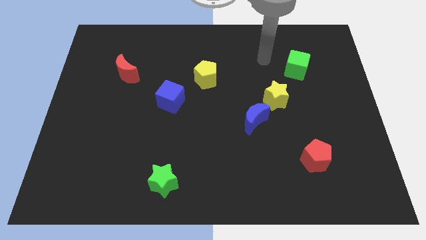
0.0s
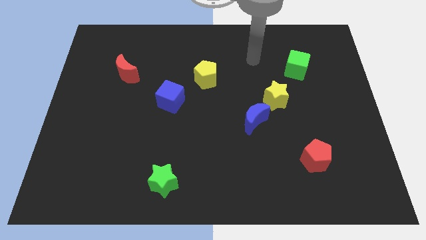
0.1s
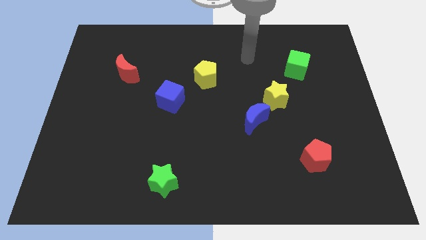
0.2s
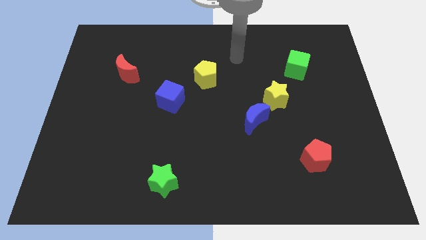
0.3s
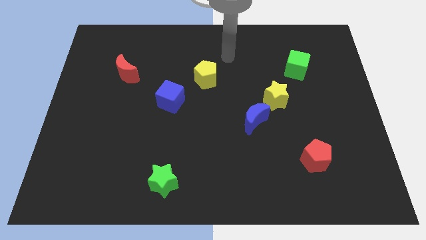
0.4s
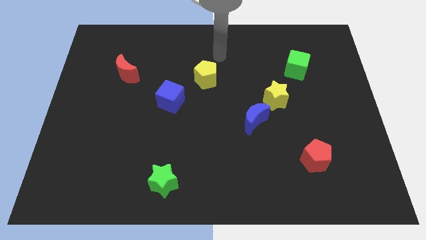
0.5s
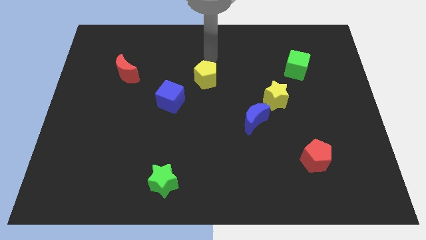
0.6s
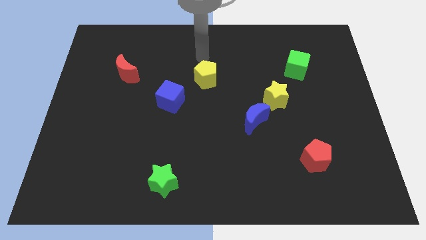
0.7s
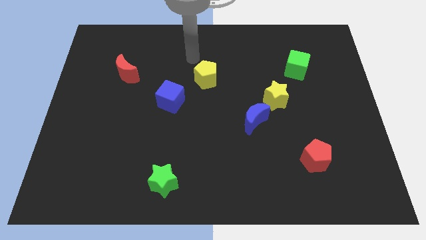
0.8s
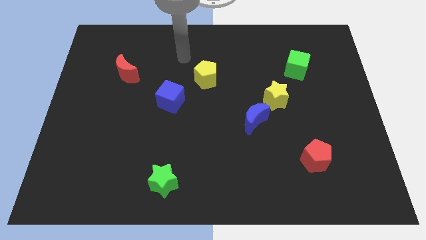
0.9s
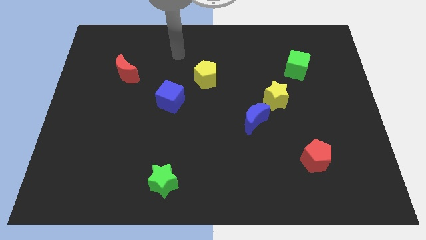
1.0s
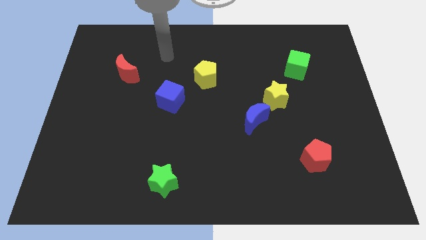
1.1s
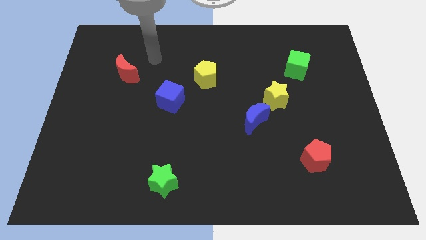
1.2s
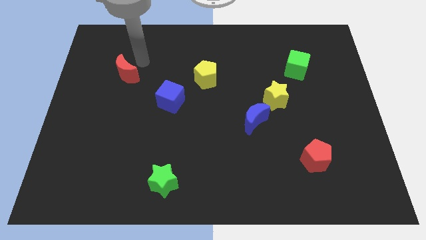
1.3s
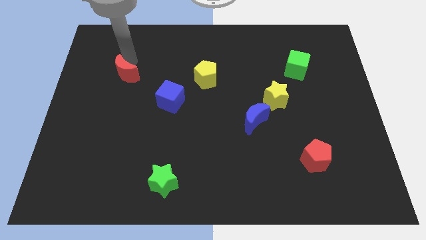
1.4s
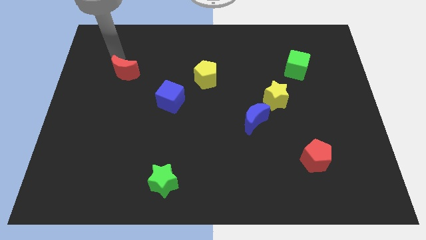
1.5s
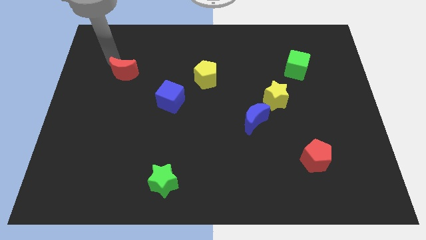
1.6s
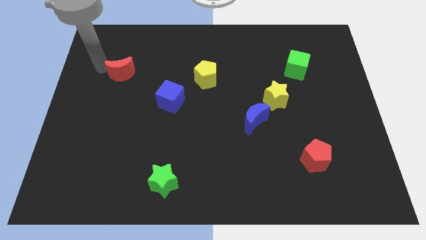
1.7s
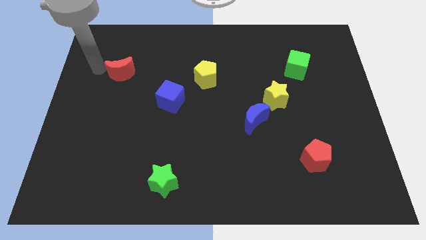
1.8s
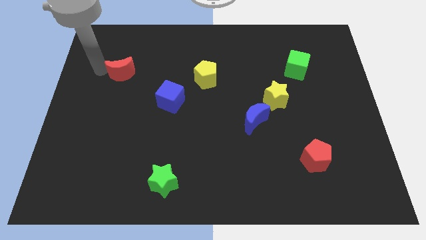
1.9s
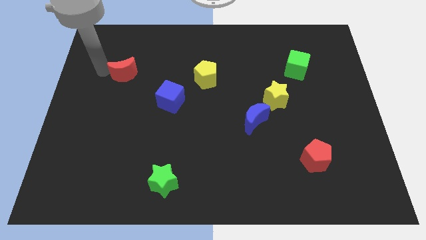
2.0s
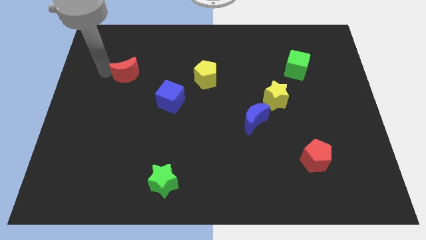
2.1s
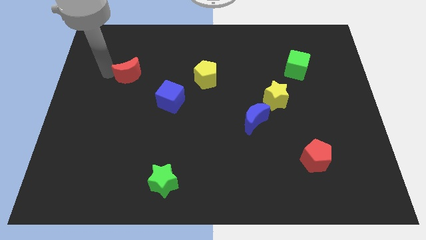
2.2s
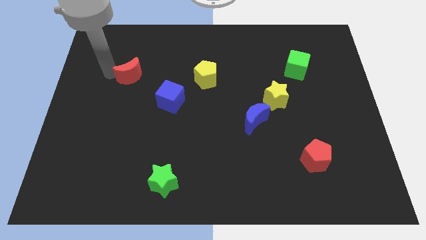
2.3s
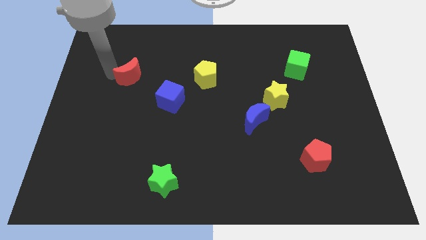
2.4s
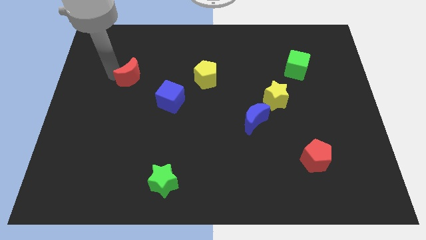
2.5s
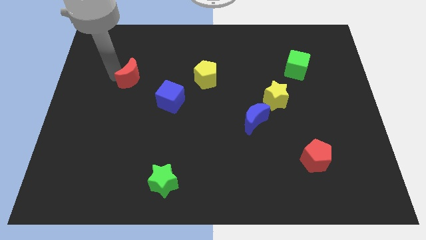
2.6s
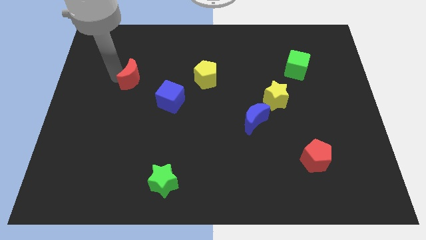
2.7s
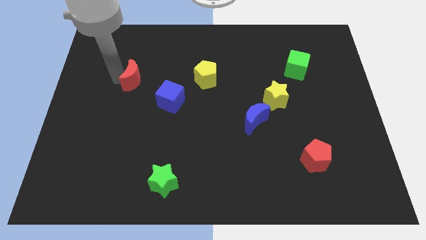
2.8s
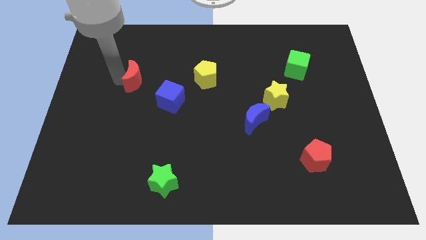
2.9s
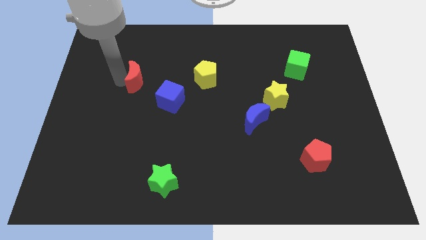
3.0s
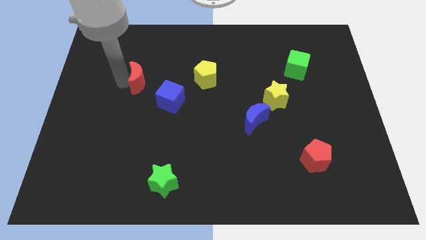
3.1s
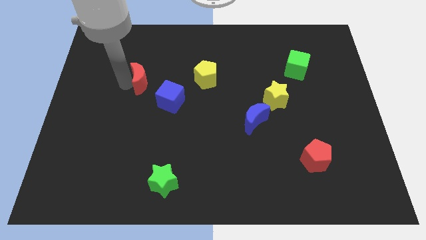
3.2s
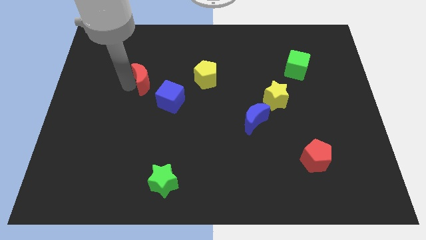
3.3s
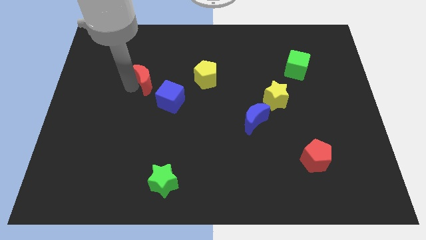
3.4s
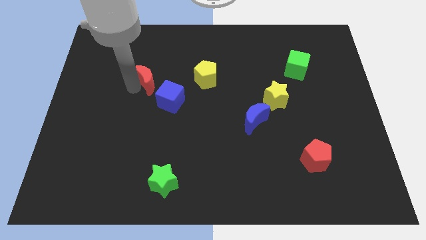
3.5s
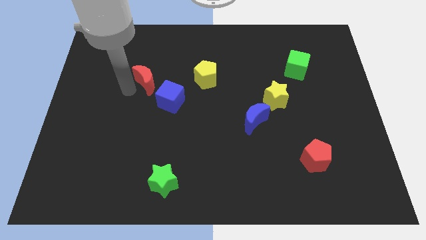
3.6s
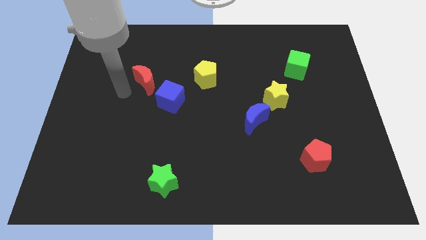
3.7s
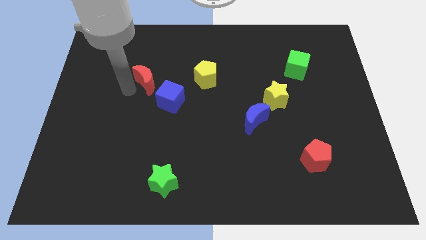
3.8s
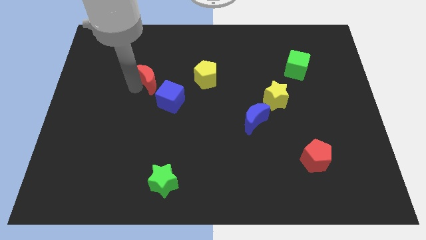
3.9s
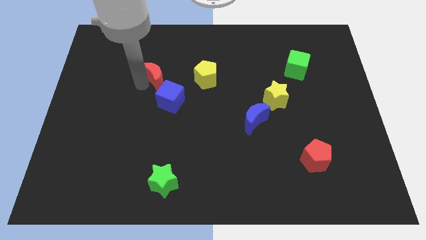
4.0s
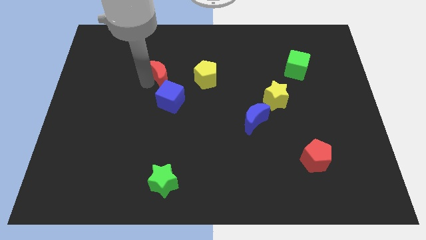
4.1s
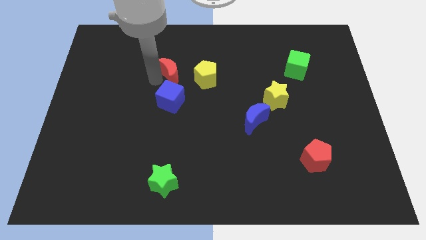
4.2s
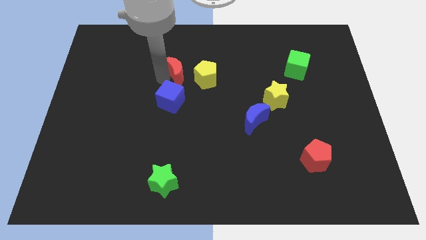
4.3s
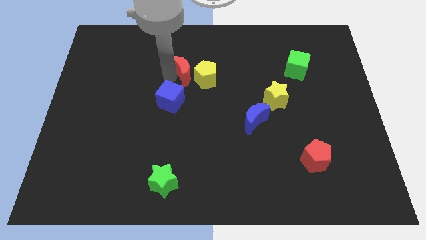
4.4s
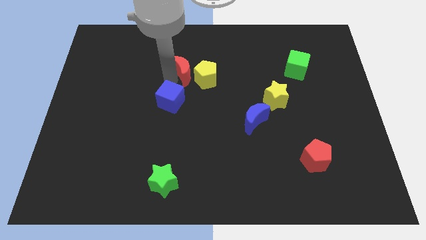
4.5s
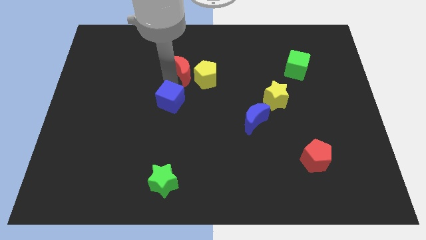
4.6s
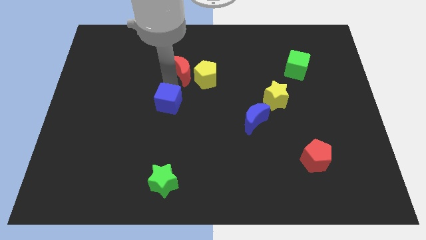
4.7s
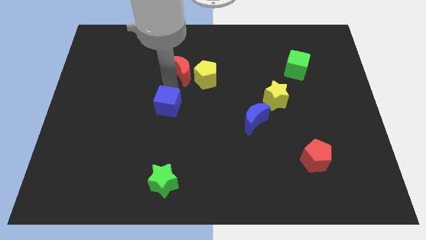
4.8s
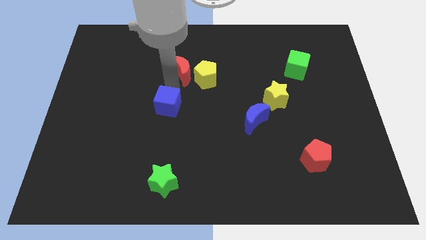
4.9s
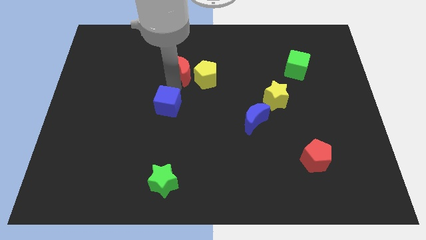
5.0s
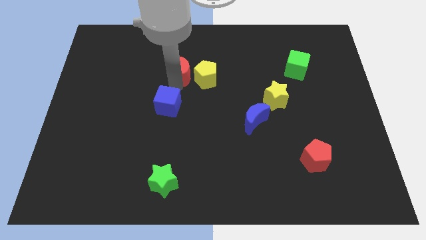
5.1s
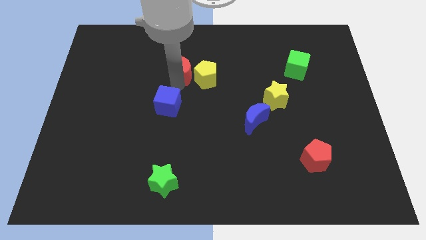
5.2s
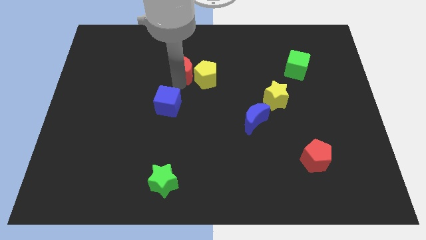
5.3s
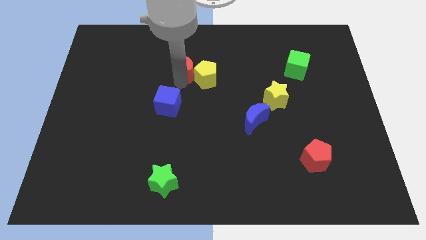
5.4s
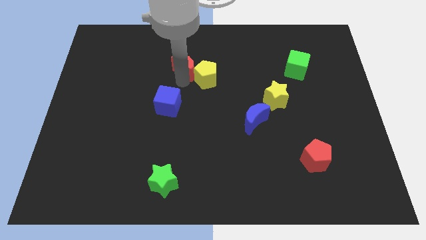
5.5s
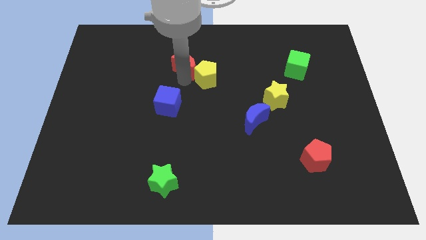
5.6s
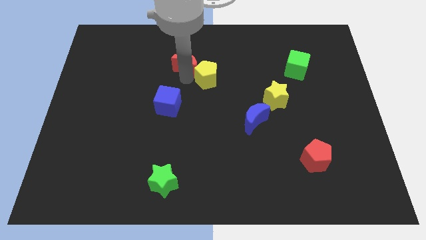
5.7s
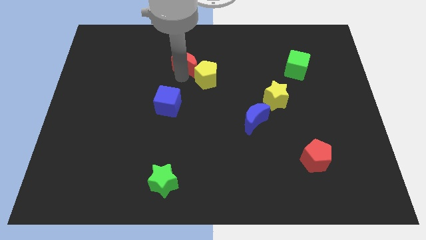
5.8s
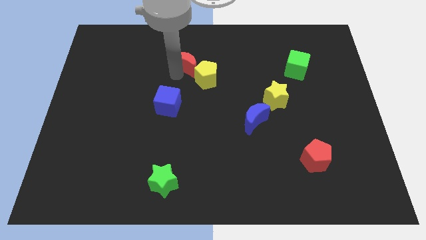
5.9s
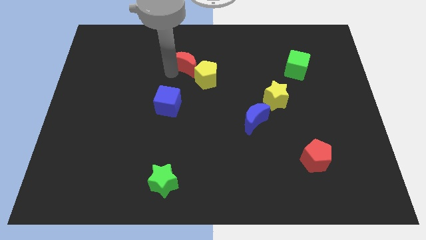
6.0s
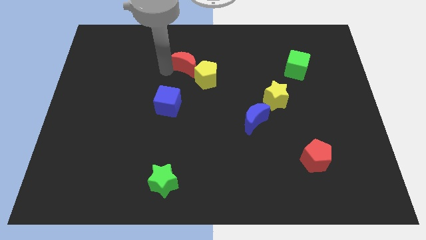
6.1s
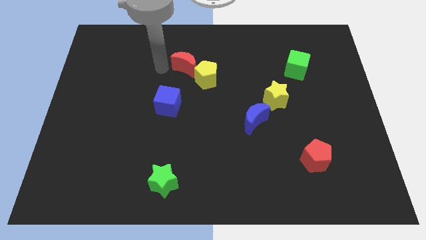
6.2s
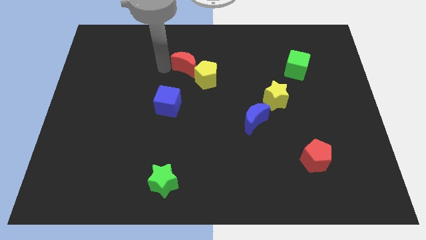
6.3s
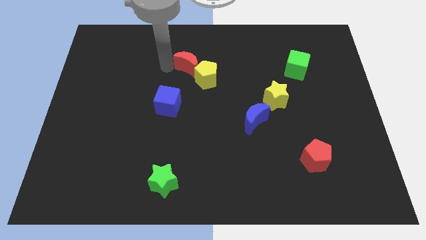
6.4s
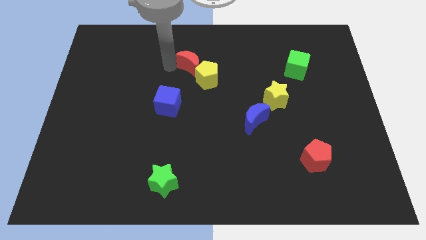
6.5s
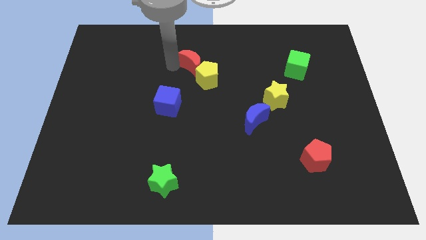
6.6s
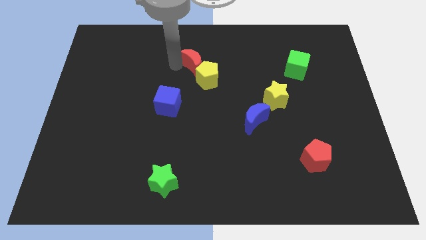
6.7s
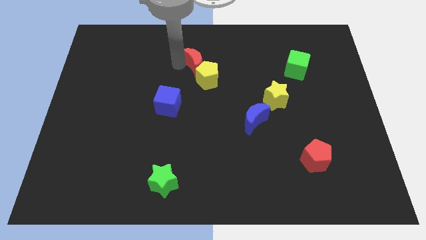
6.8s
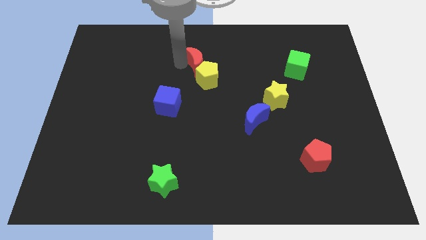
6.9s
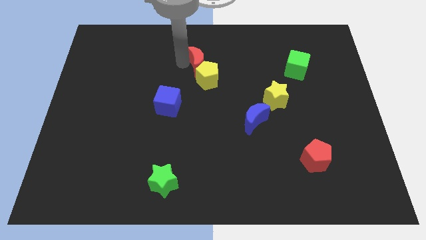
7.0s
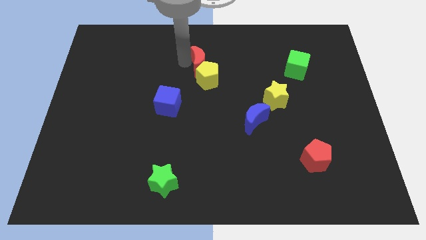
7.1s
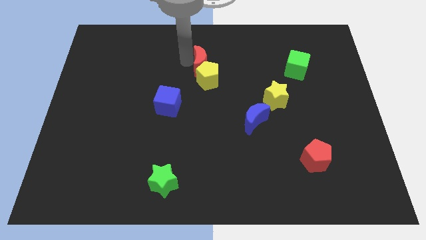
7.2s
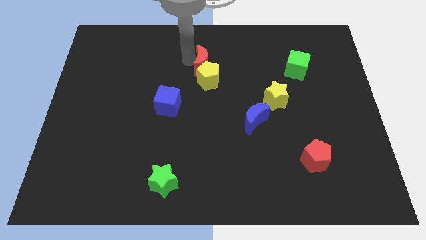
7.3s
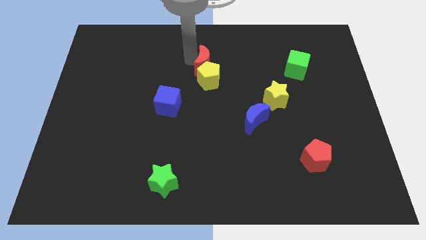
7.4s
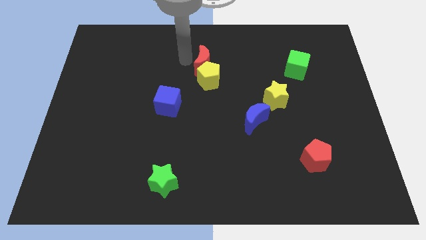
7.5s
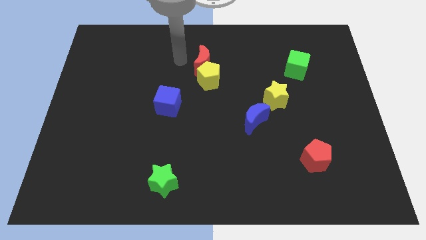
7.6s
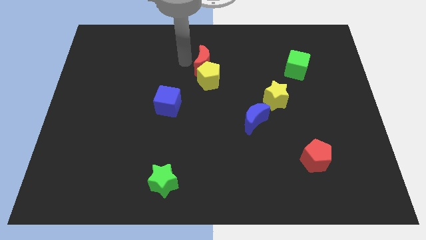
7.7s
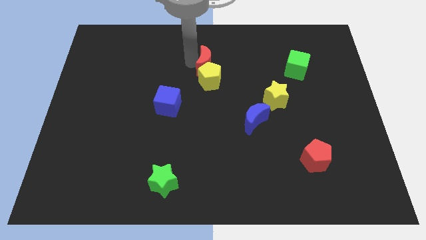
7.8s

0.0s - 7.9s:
slide the red moon right
